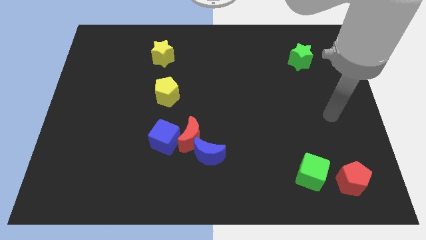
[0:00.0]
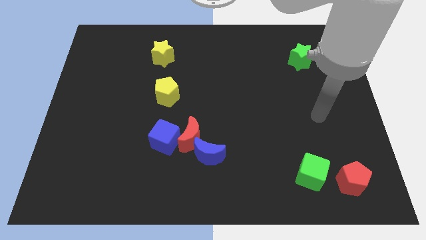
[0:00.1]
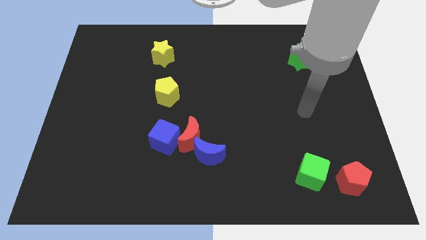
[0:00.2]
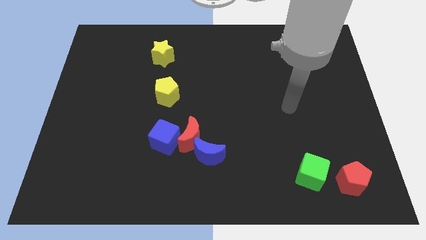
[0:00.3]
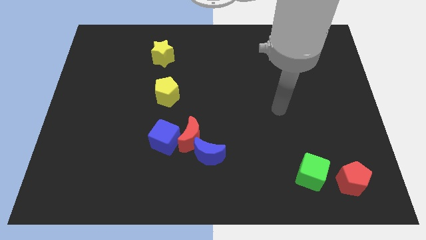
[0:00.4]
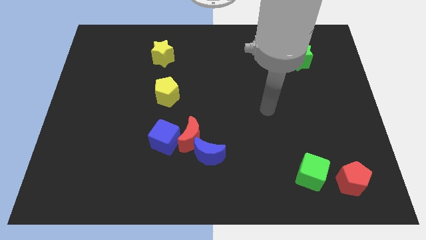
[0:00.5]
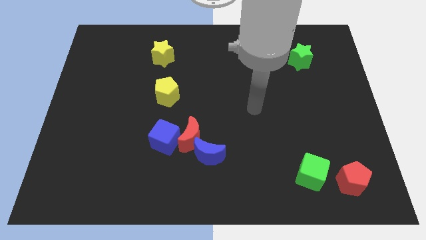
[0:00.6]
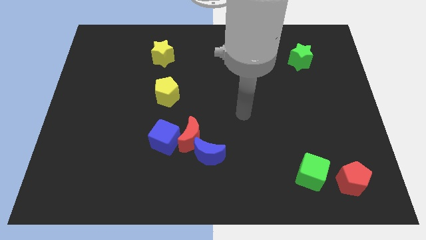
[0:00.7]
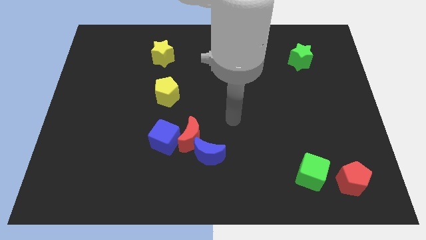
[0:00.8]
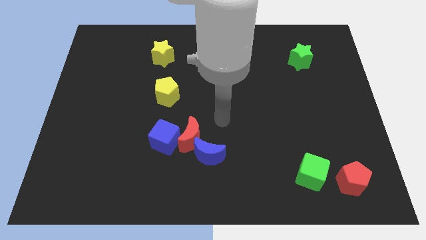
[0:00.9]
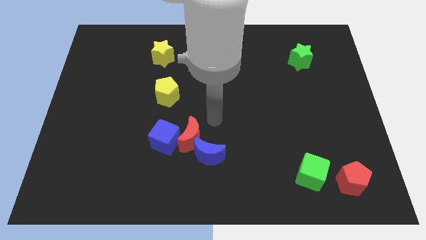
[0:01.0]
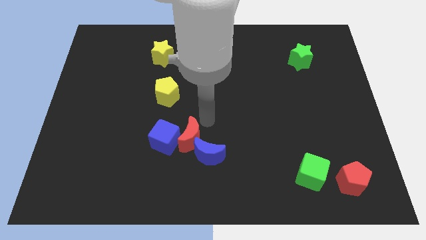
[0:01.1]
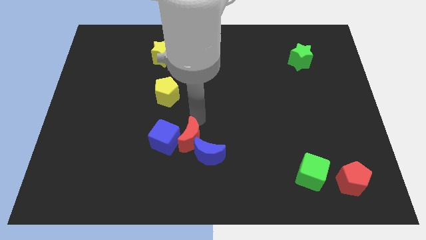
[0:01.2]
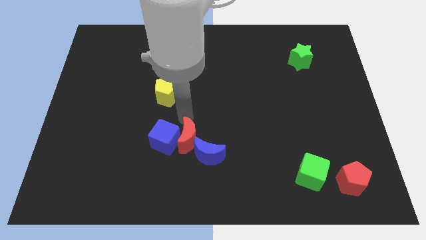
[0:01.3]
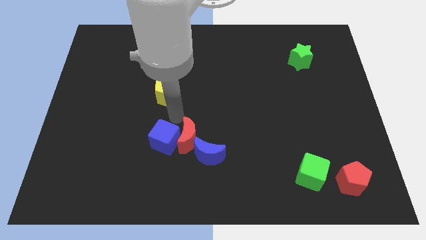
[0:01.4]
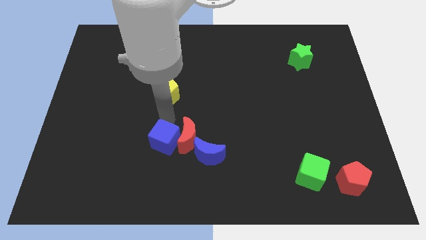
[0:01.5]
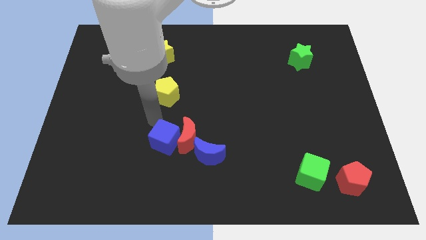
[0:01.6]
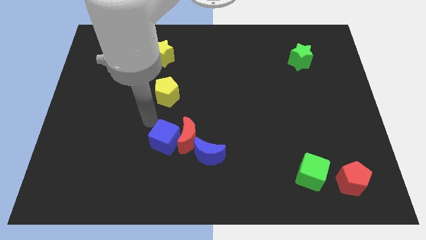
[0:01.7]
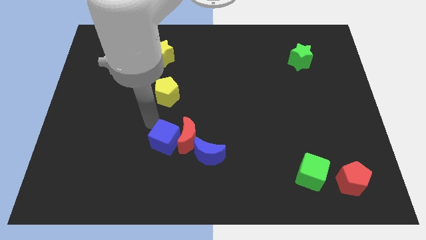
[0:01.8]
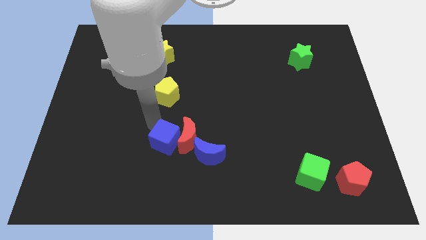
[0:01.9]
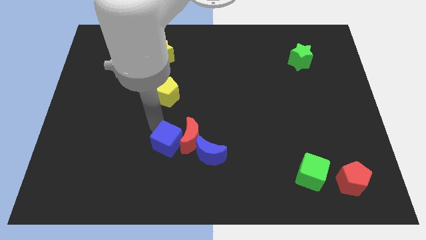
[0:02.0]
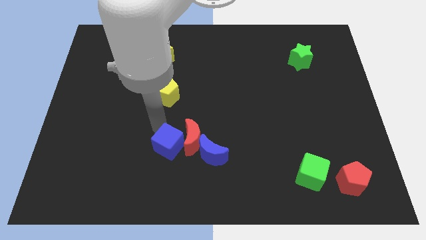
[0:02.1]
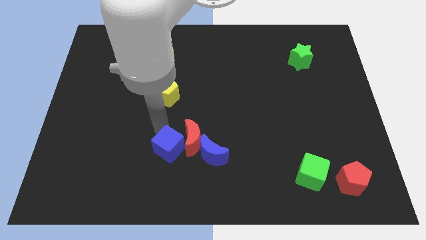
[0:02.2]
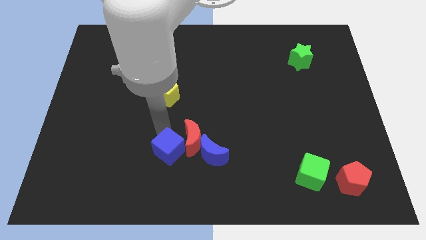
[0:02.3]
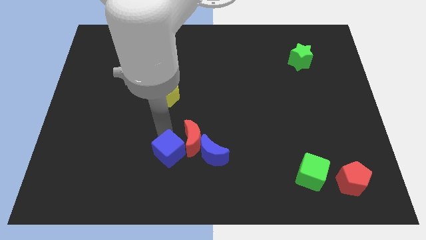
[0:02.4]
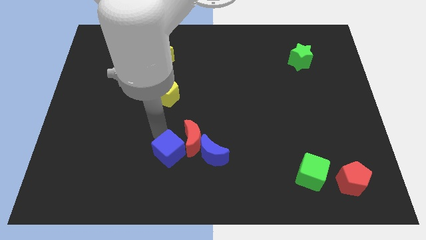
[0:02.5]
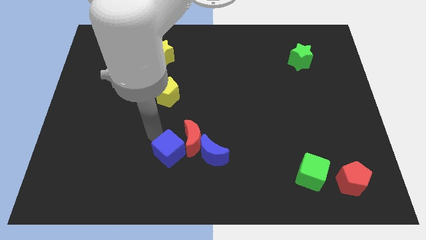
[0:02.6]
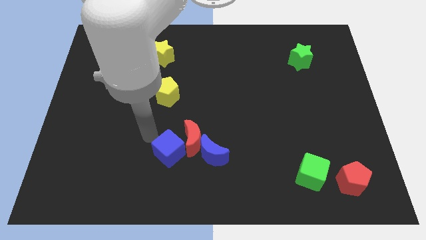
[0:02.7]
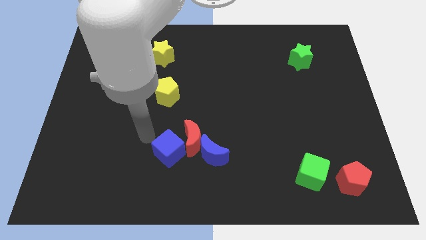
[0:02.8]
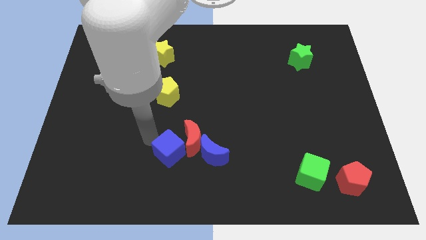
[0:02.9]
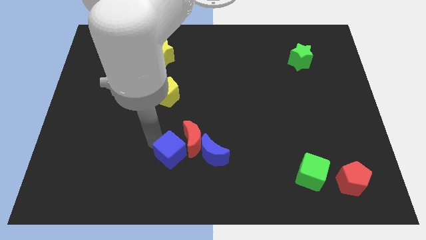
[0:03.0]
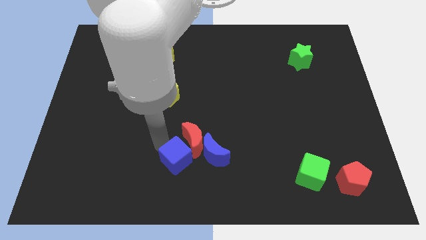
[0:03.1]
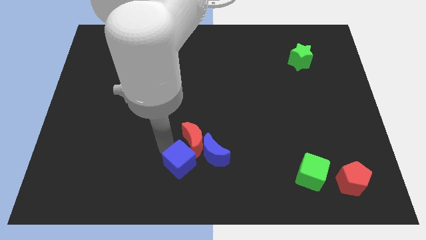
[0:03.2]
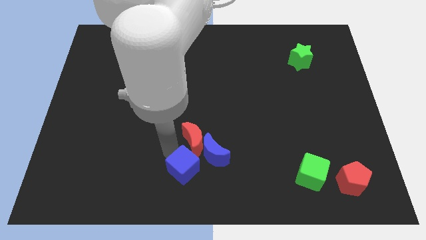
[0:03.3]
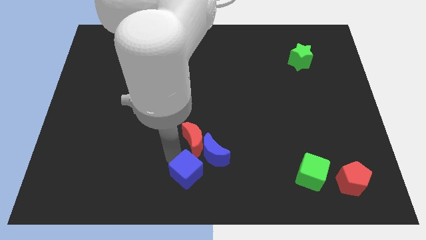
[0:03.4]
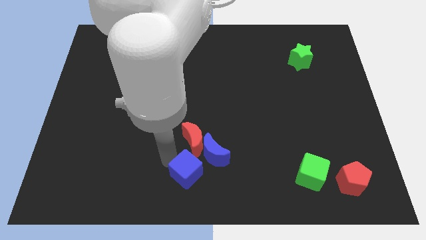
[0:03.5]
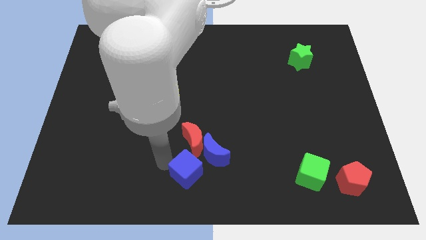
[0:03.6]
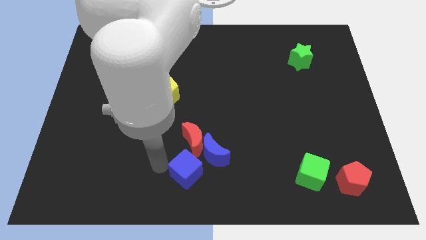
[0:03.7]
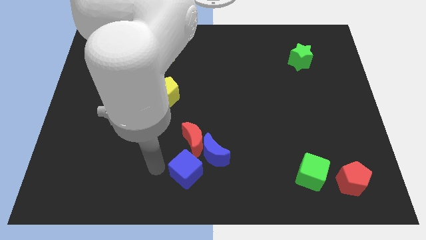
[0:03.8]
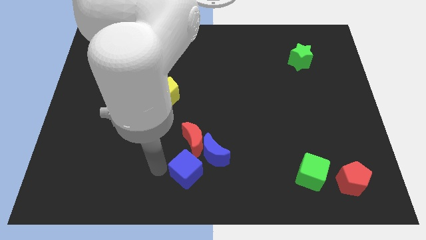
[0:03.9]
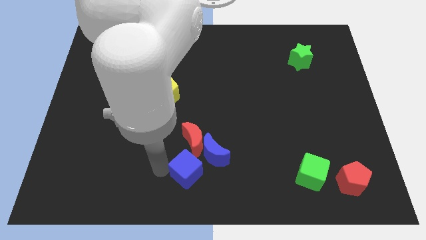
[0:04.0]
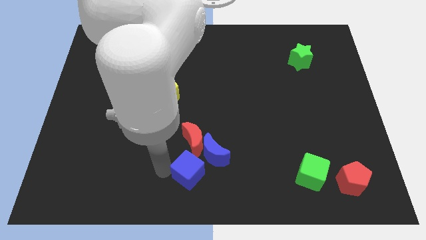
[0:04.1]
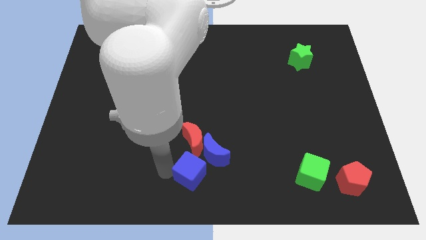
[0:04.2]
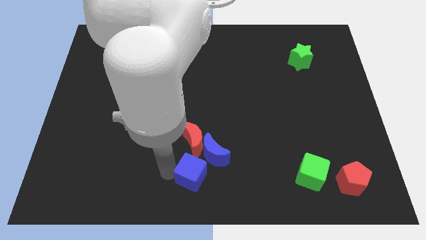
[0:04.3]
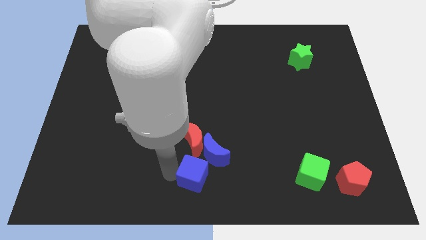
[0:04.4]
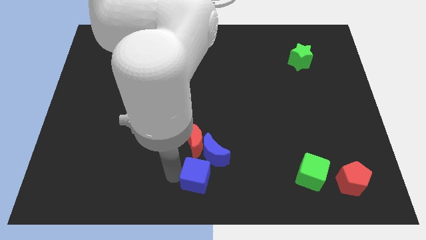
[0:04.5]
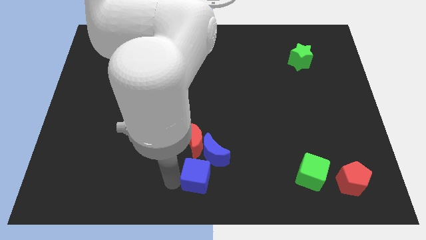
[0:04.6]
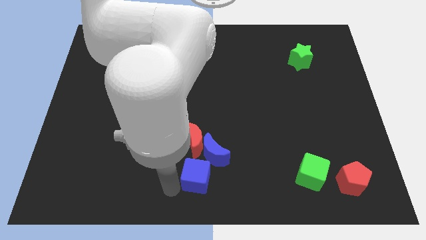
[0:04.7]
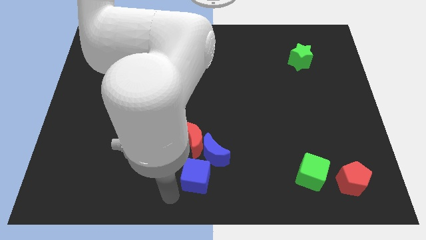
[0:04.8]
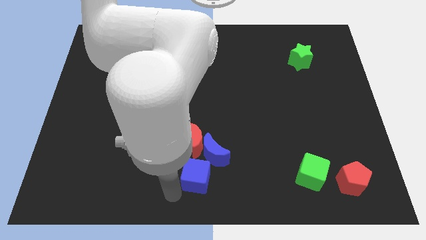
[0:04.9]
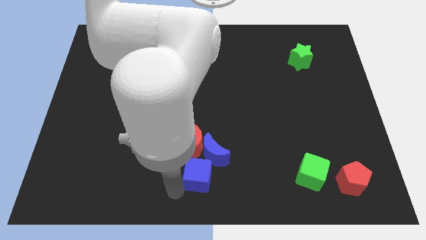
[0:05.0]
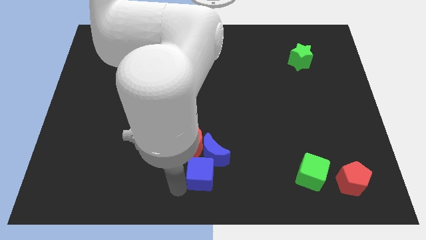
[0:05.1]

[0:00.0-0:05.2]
slide the blue cube to the bottom right side of the red moon

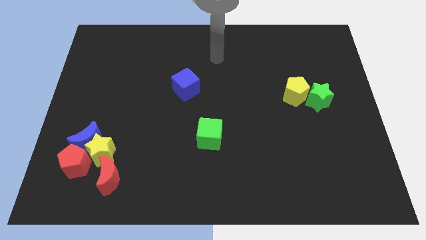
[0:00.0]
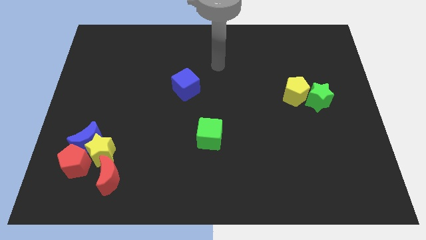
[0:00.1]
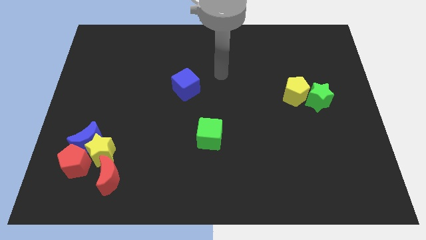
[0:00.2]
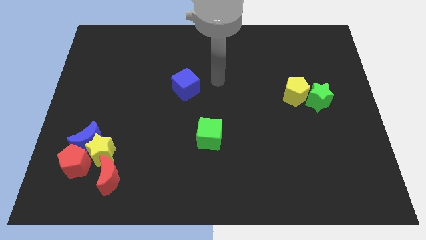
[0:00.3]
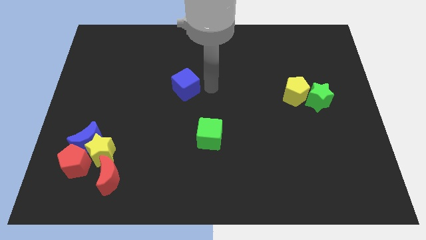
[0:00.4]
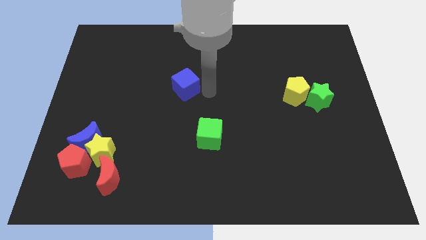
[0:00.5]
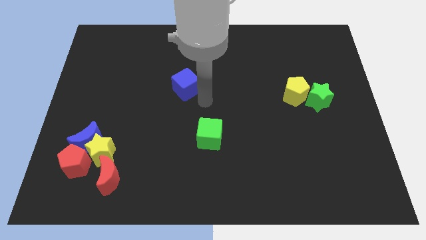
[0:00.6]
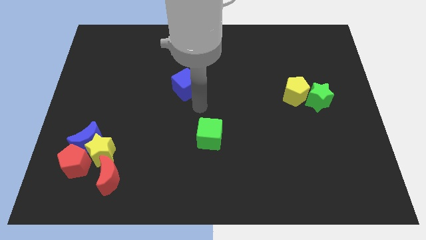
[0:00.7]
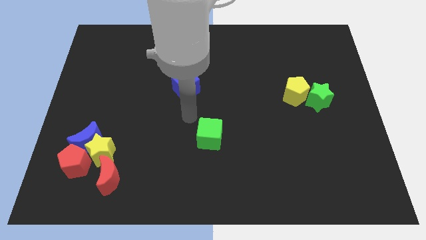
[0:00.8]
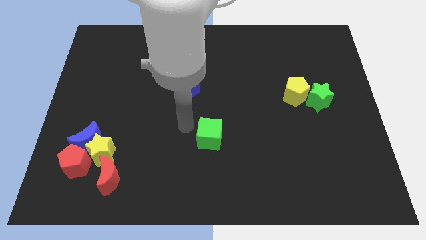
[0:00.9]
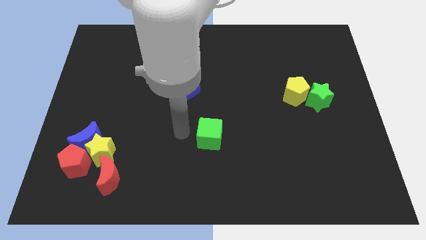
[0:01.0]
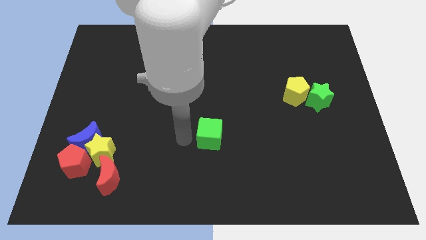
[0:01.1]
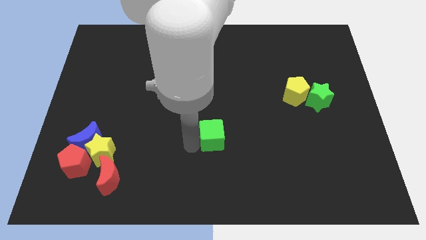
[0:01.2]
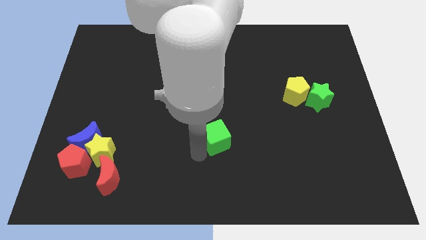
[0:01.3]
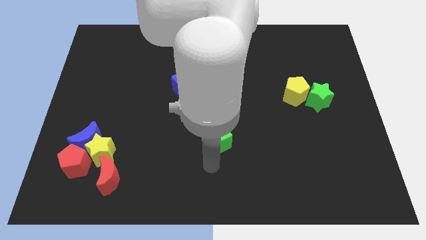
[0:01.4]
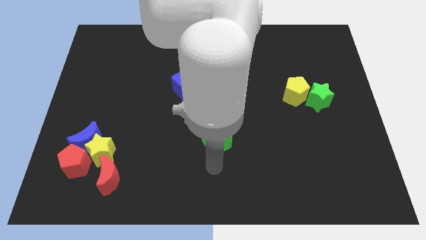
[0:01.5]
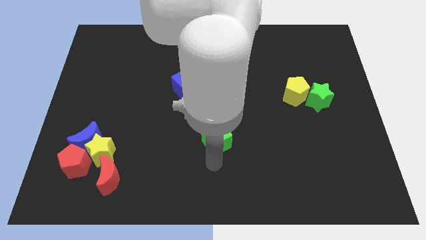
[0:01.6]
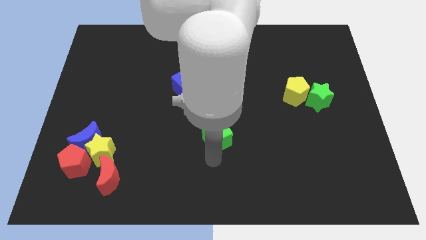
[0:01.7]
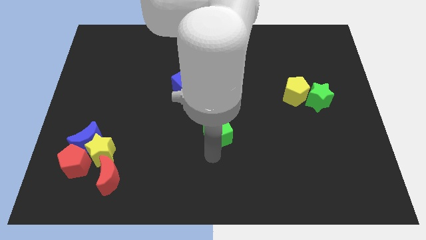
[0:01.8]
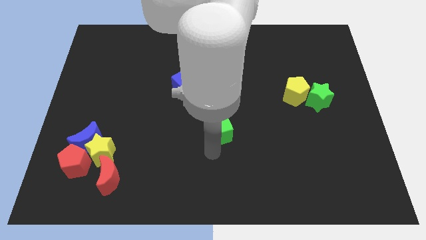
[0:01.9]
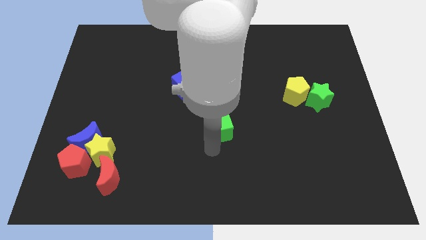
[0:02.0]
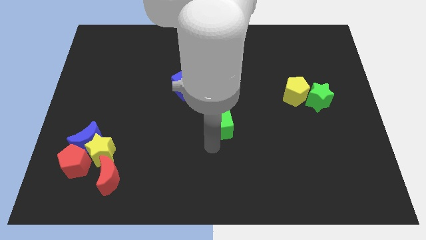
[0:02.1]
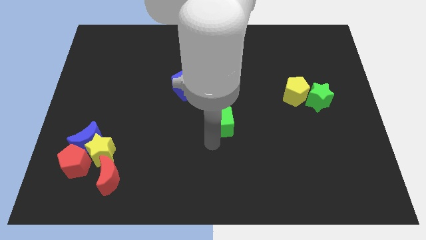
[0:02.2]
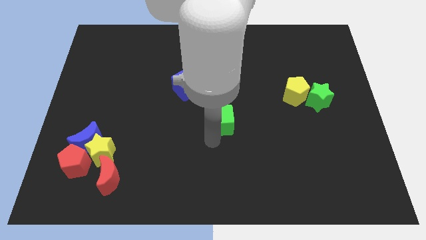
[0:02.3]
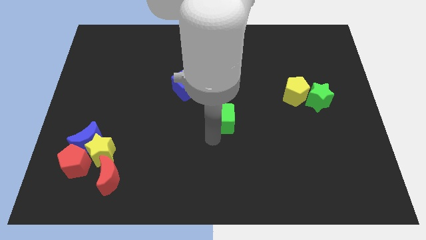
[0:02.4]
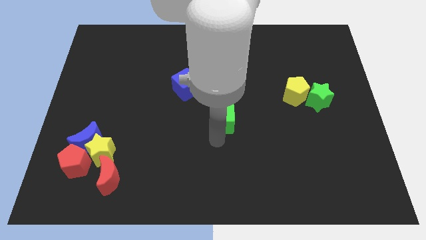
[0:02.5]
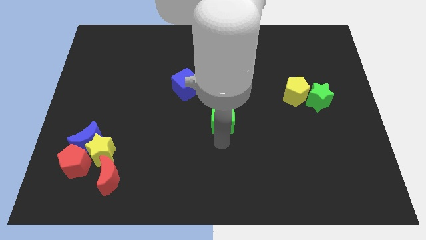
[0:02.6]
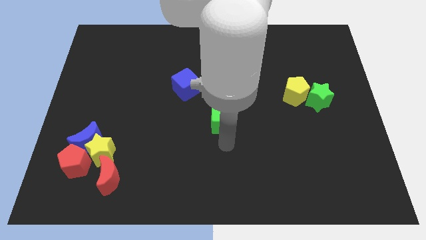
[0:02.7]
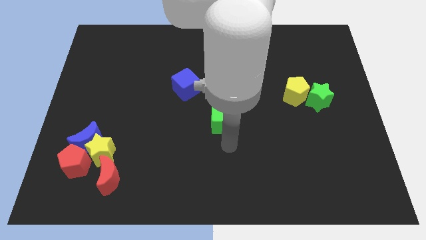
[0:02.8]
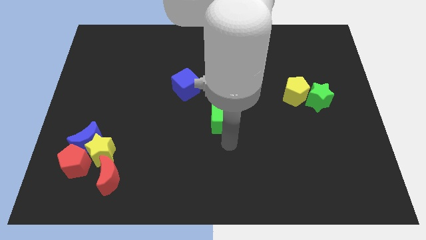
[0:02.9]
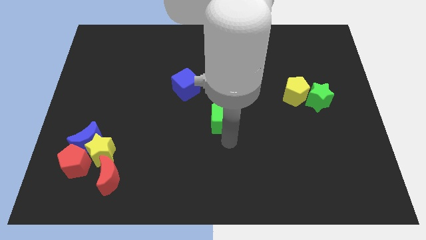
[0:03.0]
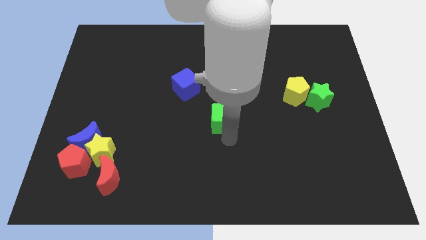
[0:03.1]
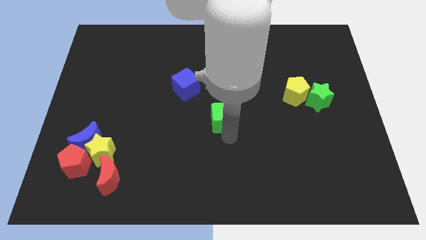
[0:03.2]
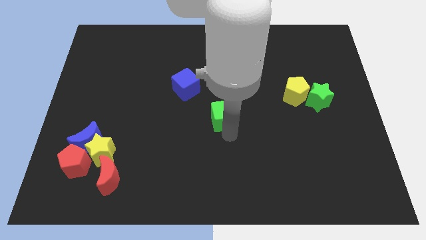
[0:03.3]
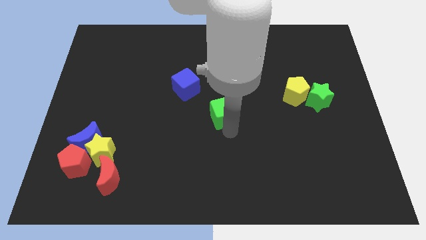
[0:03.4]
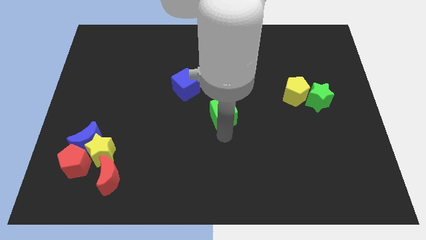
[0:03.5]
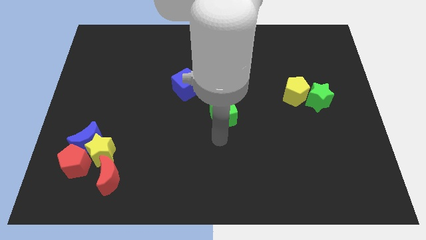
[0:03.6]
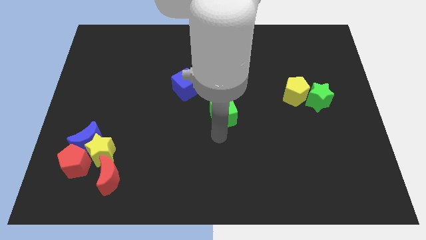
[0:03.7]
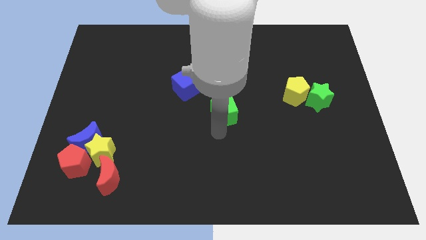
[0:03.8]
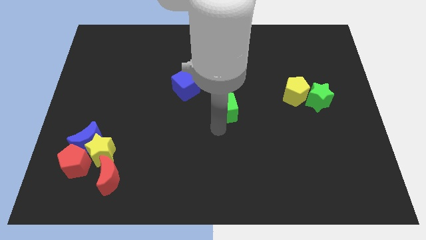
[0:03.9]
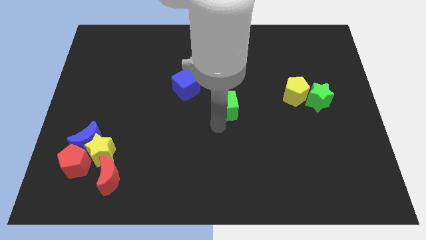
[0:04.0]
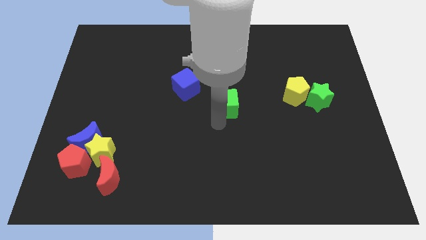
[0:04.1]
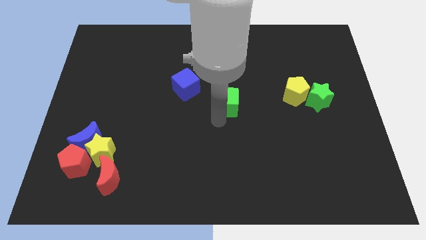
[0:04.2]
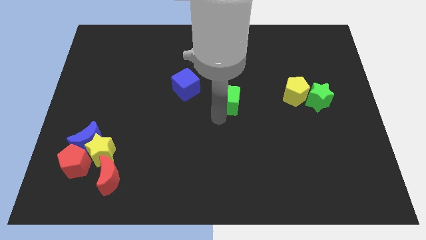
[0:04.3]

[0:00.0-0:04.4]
move the green cube just right of the blue cube
